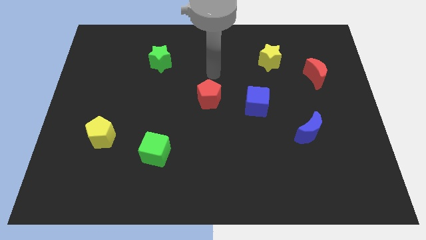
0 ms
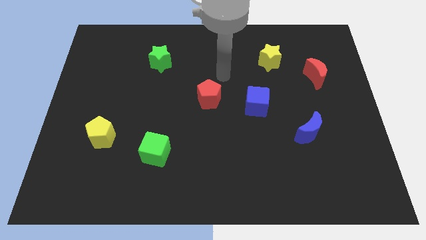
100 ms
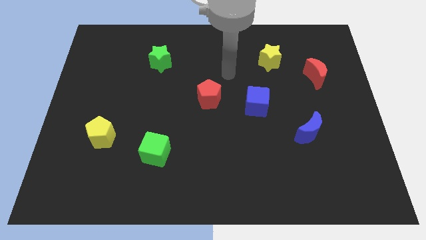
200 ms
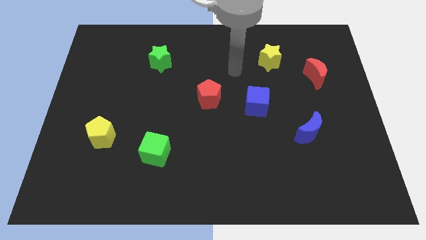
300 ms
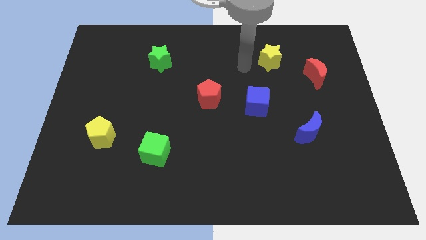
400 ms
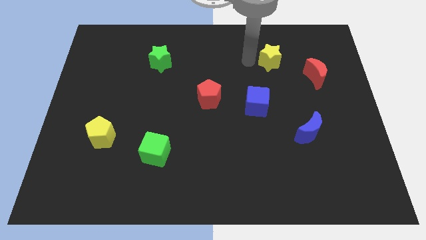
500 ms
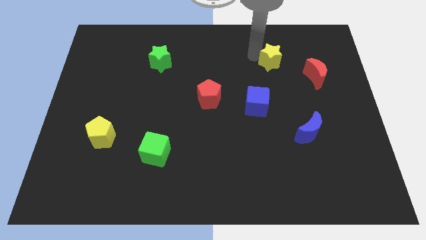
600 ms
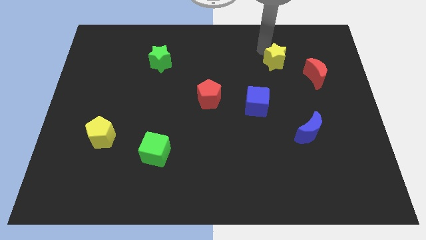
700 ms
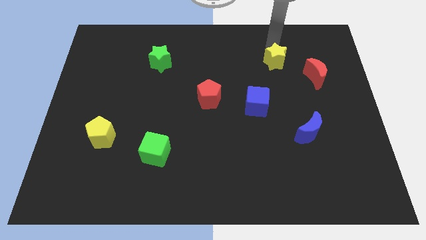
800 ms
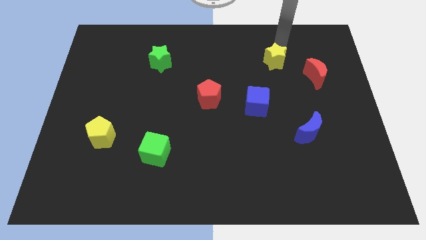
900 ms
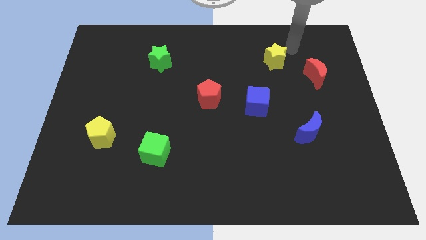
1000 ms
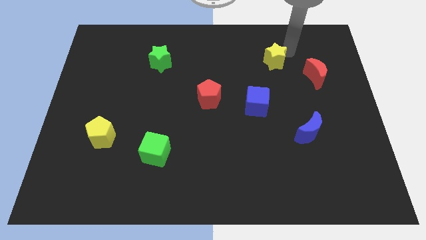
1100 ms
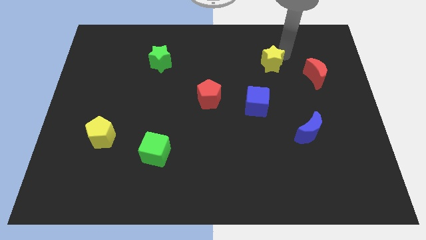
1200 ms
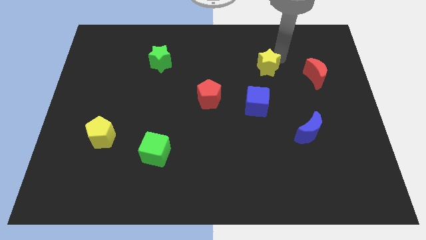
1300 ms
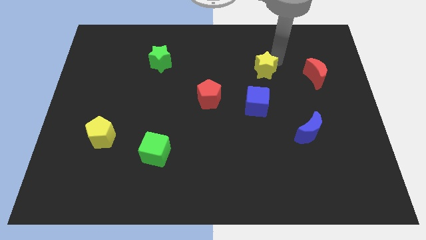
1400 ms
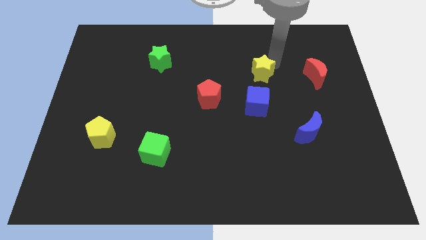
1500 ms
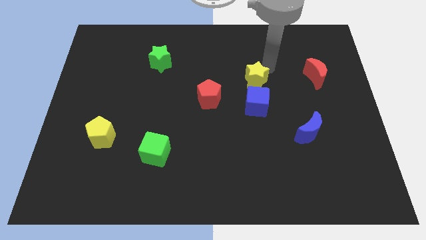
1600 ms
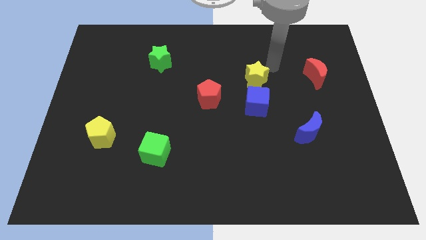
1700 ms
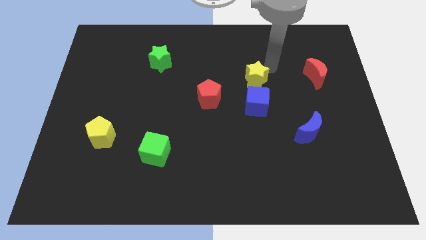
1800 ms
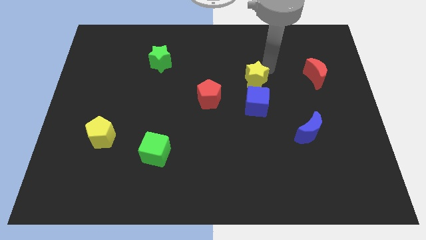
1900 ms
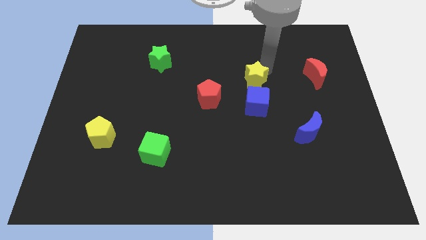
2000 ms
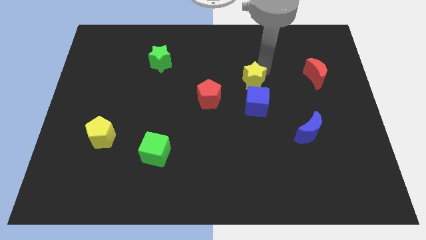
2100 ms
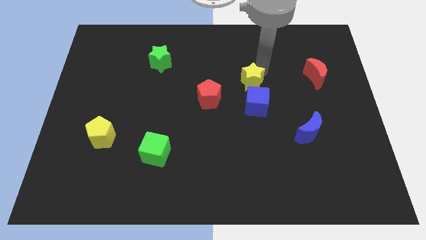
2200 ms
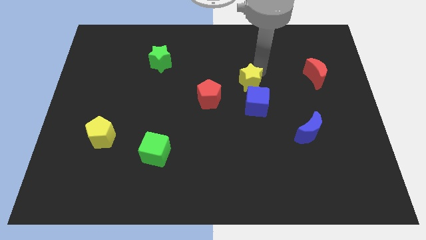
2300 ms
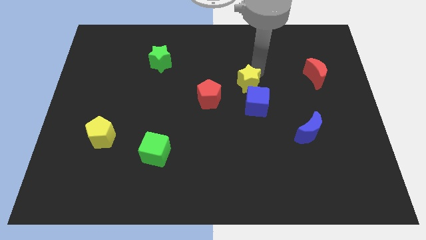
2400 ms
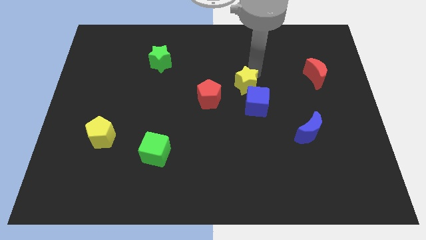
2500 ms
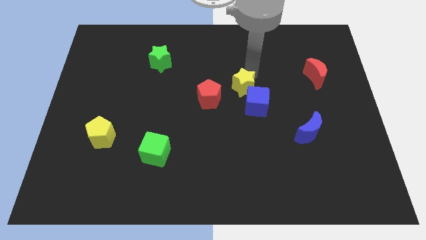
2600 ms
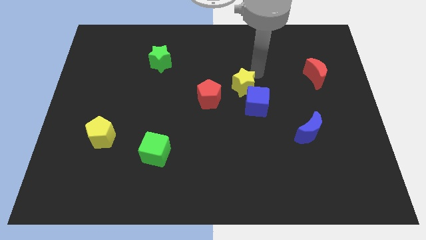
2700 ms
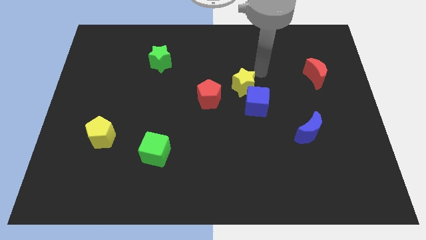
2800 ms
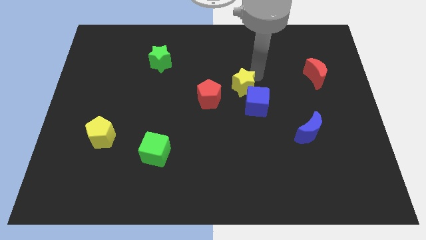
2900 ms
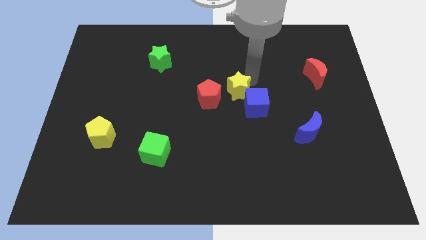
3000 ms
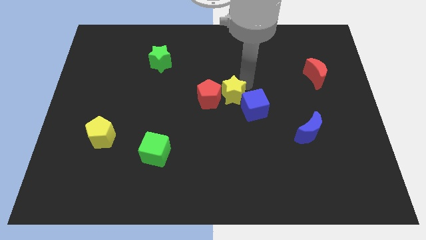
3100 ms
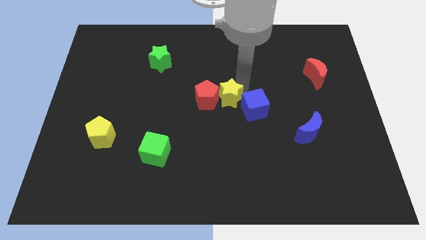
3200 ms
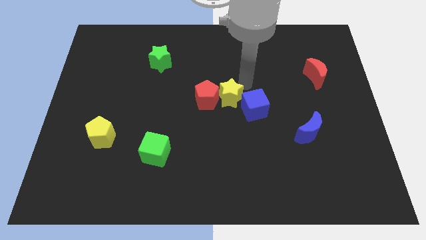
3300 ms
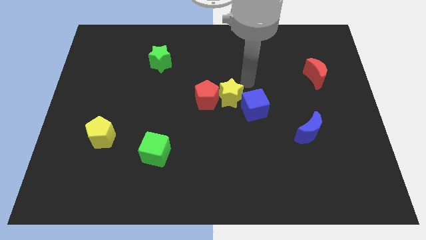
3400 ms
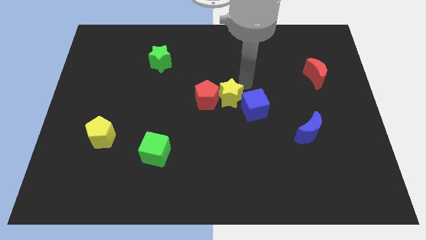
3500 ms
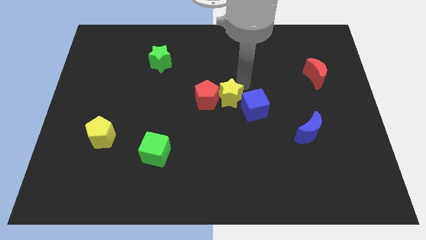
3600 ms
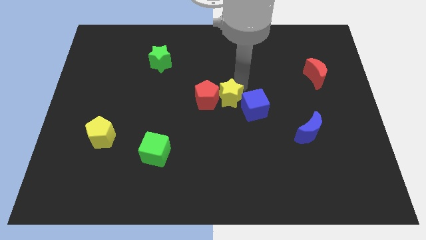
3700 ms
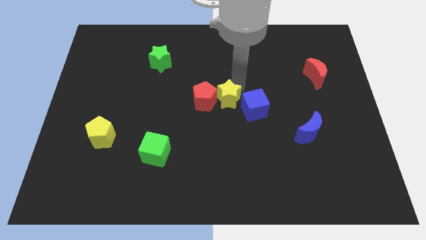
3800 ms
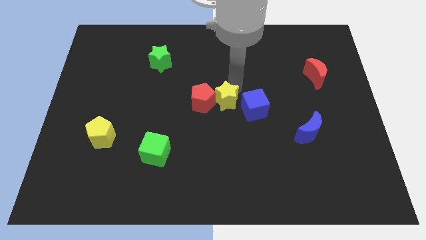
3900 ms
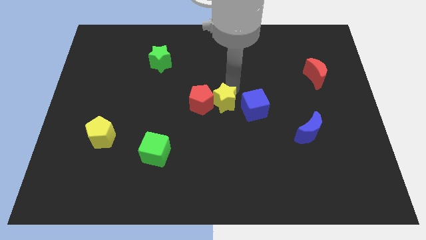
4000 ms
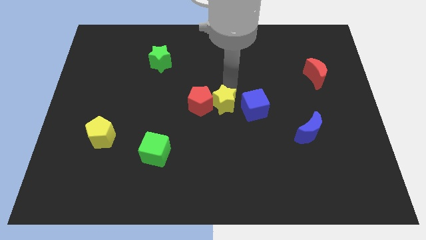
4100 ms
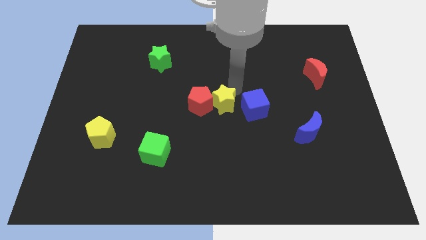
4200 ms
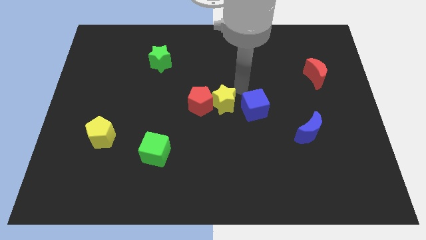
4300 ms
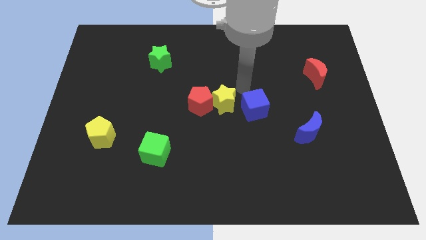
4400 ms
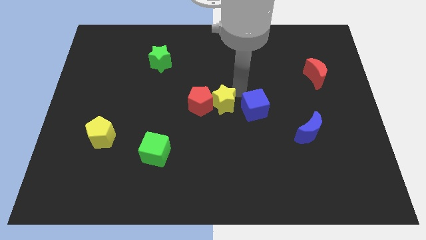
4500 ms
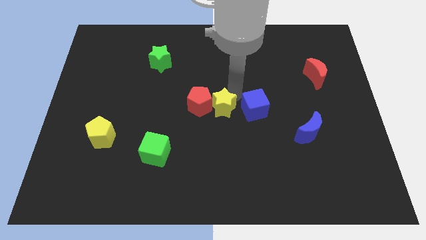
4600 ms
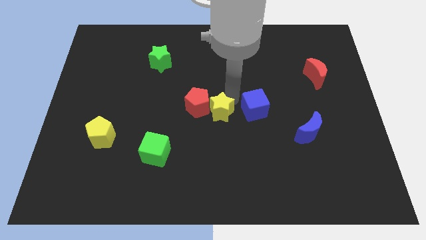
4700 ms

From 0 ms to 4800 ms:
move the yellow star diagonally down and left

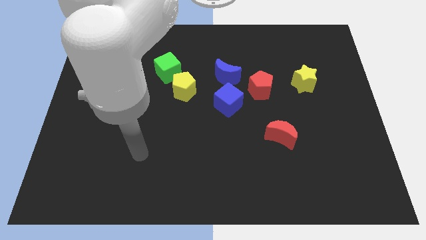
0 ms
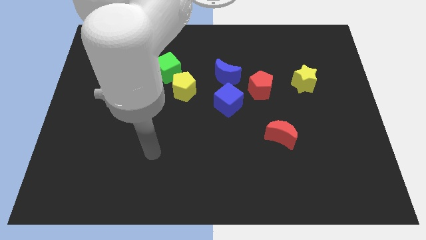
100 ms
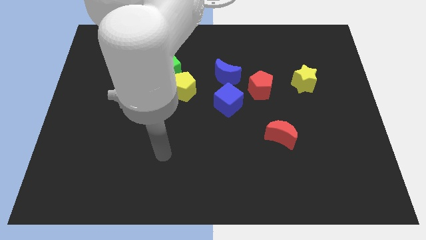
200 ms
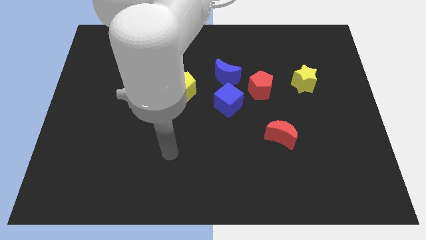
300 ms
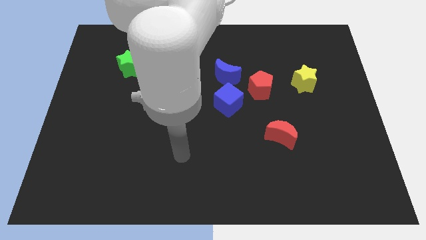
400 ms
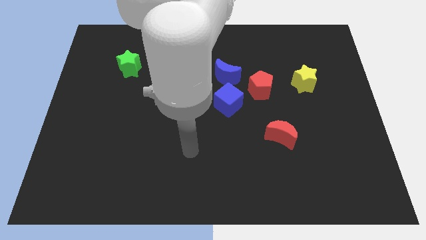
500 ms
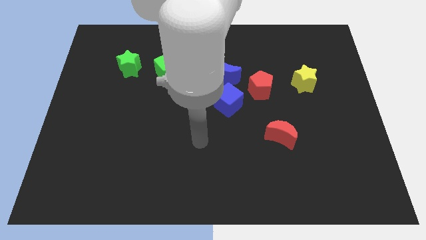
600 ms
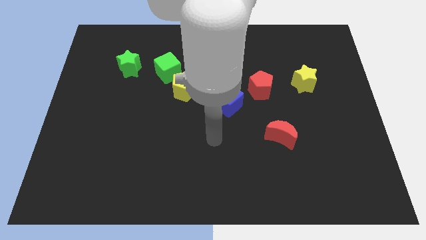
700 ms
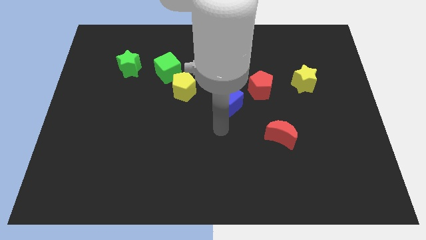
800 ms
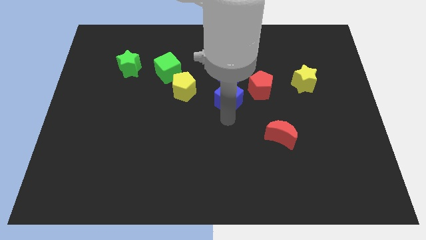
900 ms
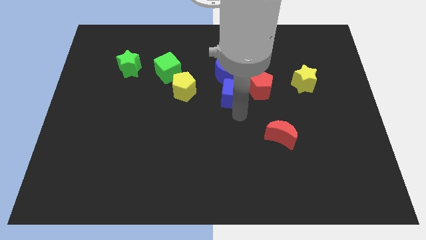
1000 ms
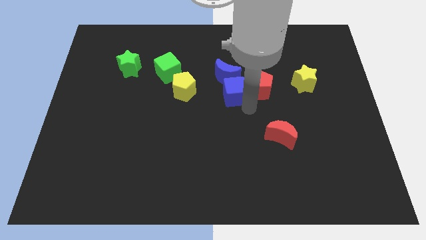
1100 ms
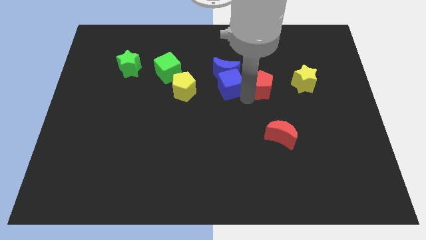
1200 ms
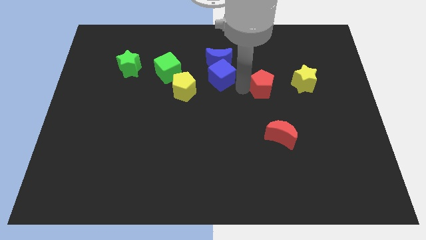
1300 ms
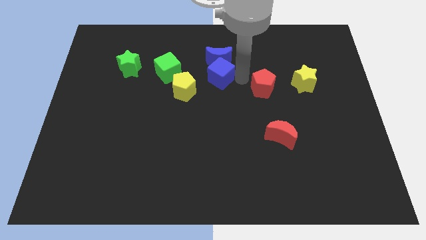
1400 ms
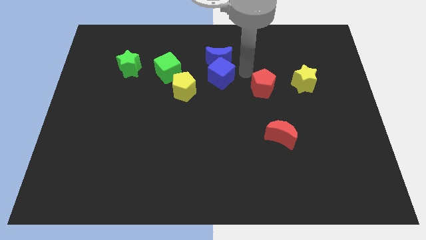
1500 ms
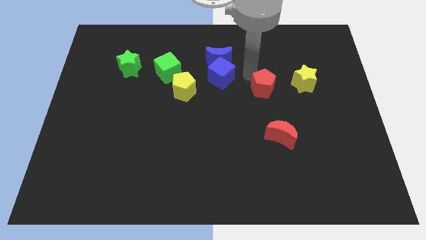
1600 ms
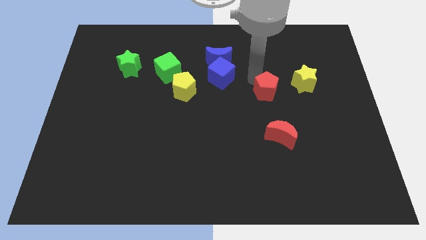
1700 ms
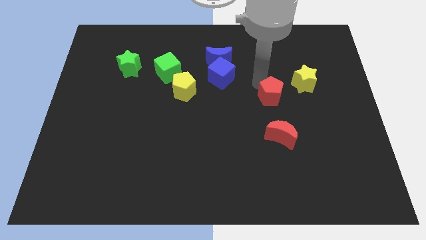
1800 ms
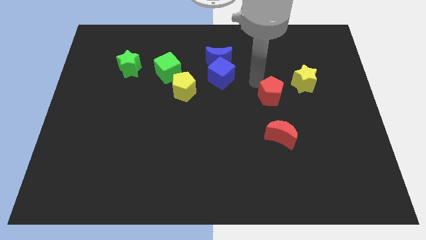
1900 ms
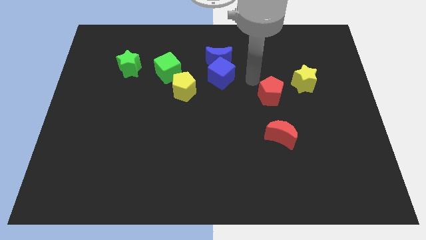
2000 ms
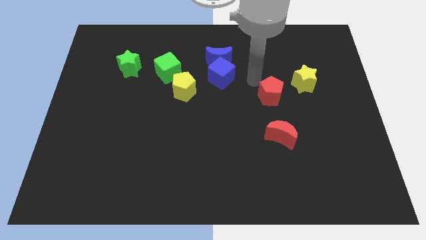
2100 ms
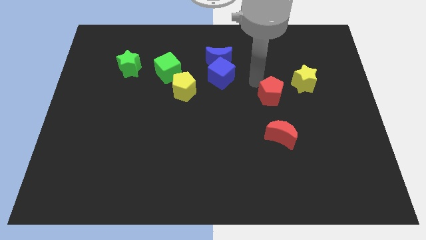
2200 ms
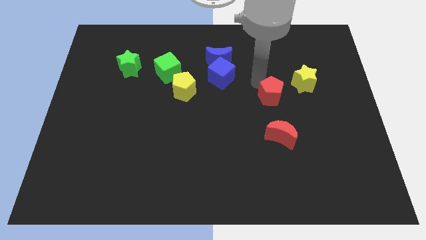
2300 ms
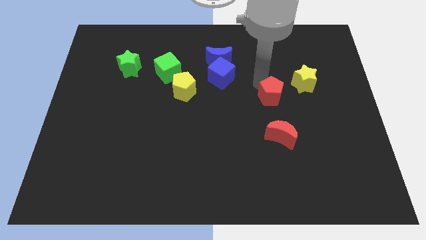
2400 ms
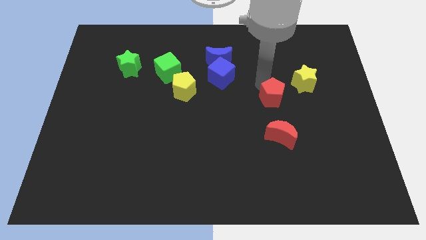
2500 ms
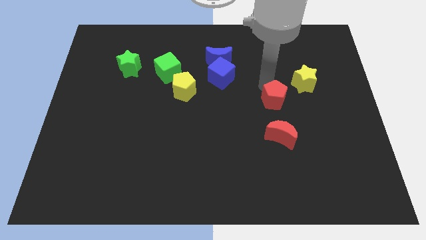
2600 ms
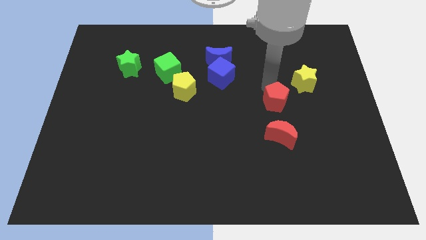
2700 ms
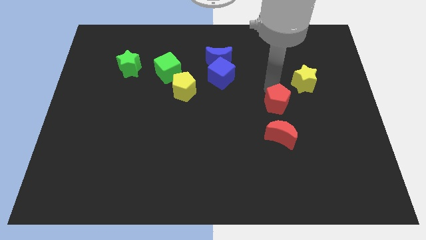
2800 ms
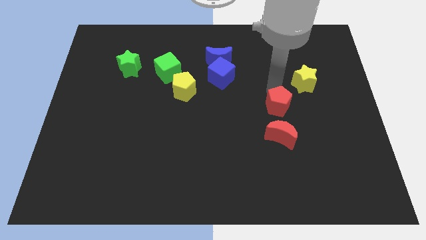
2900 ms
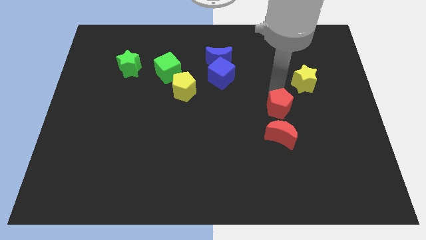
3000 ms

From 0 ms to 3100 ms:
slightly move the red pentagon diagonally down and right

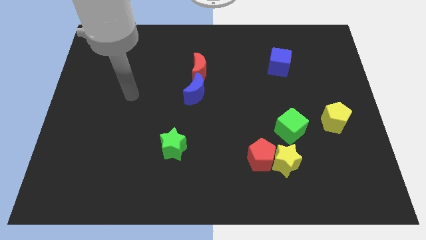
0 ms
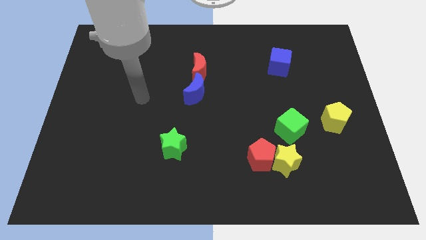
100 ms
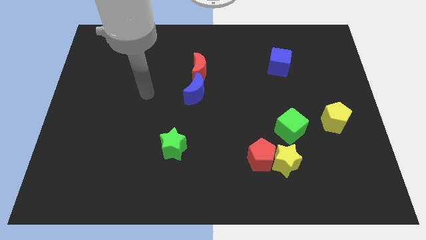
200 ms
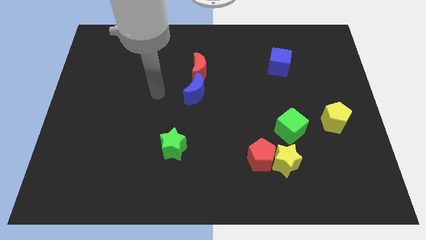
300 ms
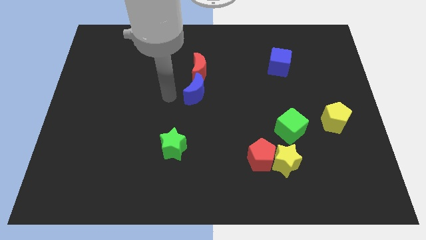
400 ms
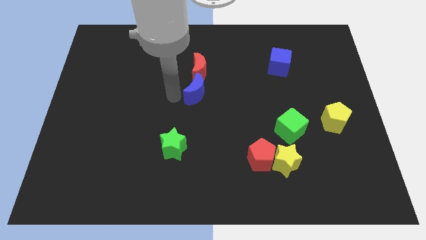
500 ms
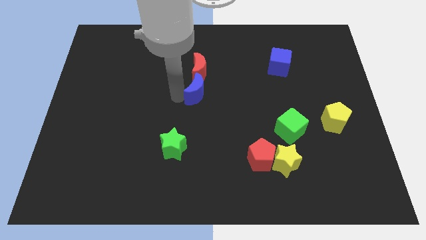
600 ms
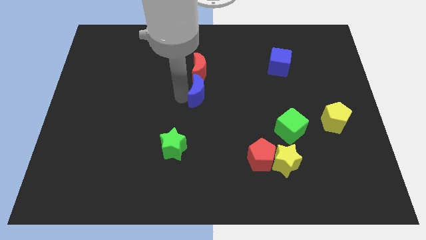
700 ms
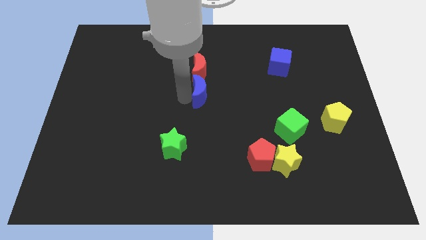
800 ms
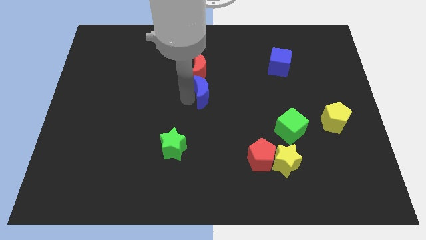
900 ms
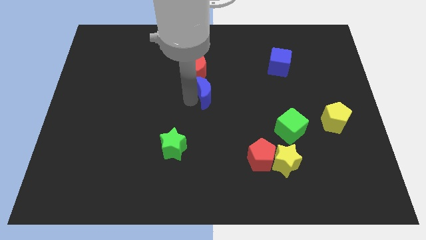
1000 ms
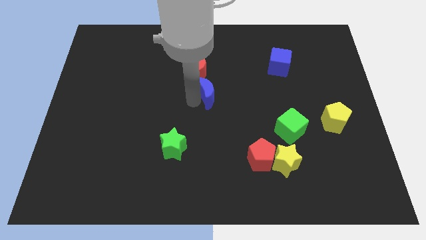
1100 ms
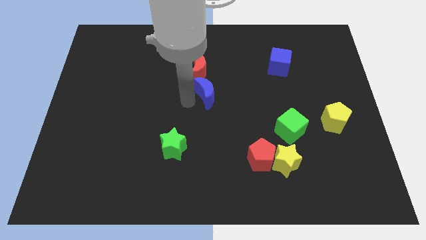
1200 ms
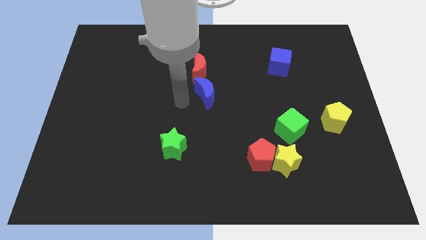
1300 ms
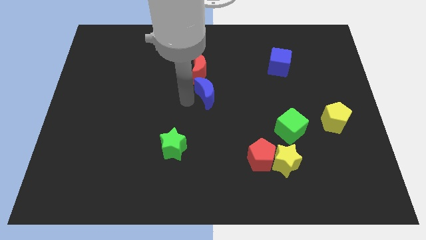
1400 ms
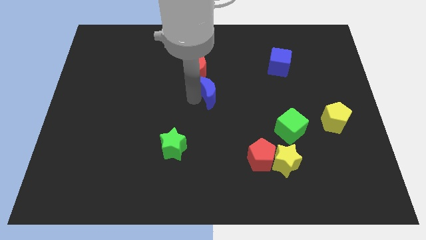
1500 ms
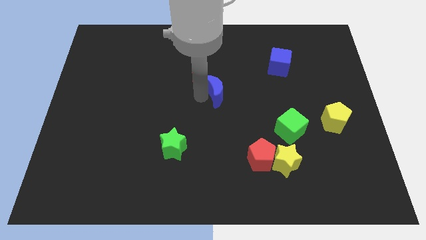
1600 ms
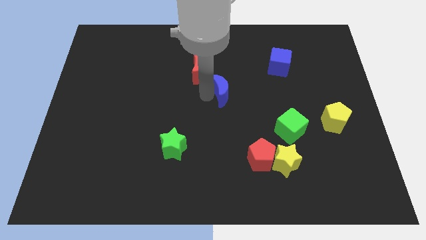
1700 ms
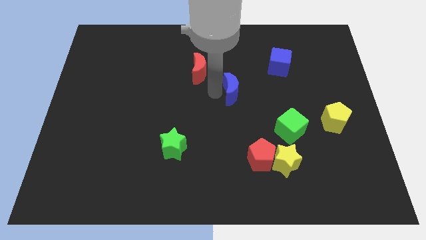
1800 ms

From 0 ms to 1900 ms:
slide the blue moon a little bit to the right
